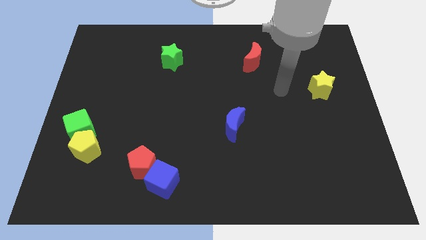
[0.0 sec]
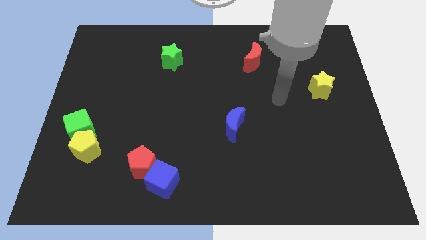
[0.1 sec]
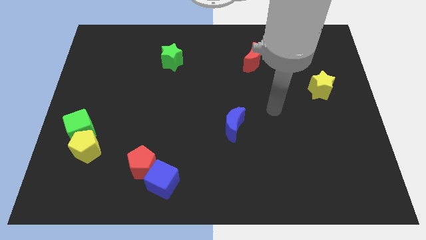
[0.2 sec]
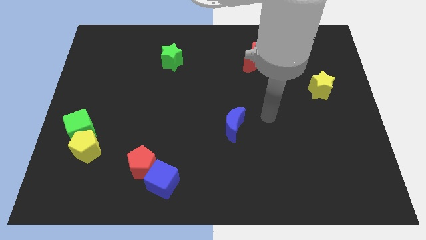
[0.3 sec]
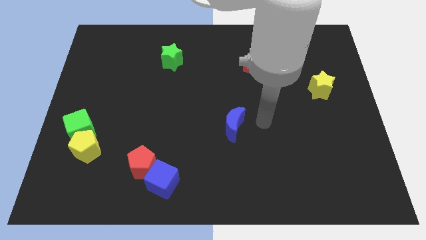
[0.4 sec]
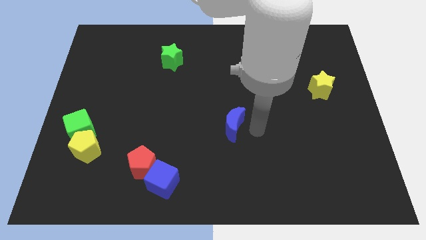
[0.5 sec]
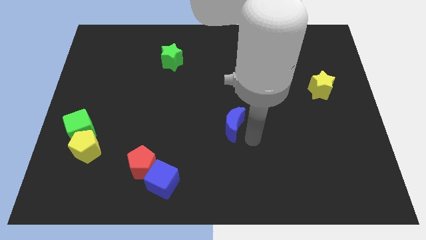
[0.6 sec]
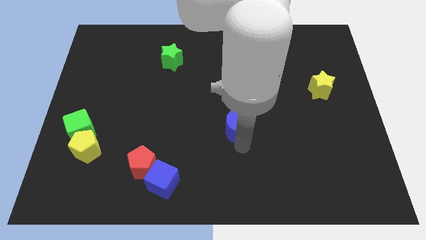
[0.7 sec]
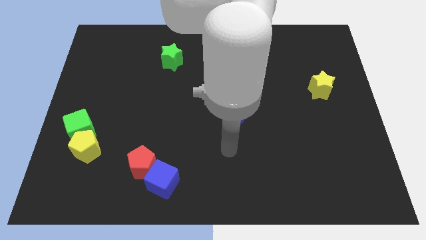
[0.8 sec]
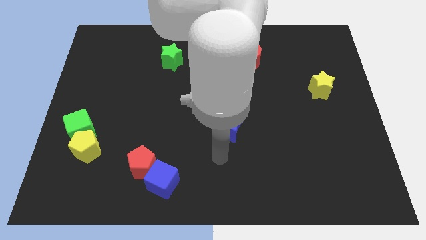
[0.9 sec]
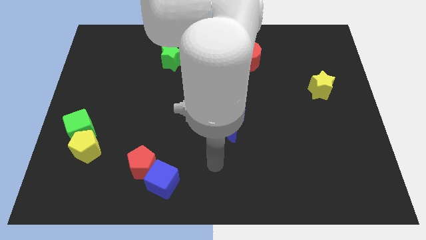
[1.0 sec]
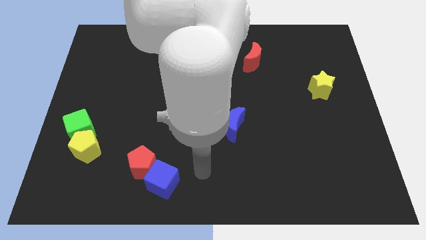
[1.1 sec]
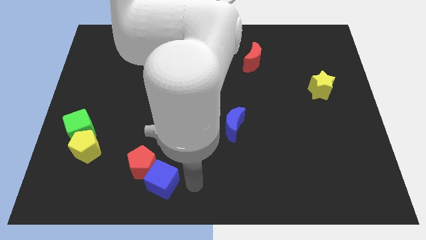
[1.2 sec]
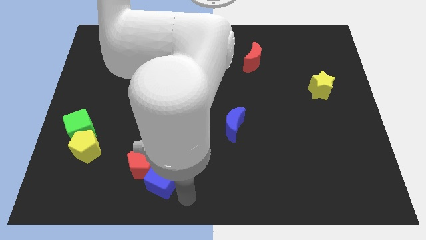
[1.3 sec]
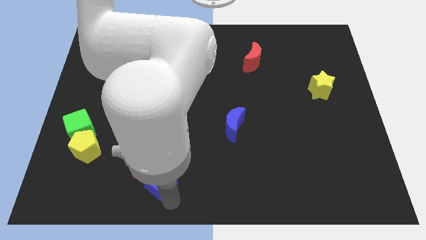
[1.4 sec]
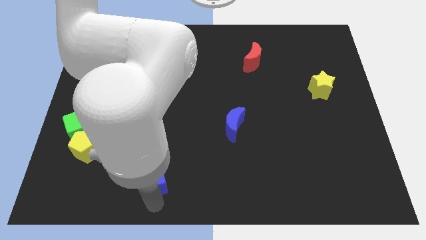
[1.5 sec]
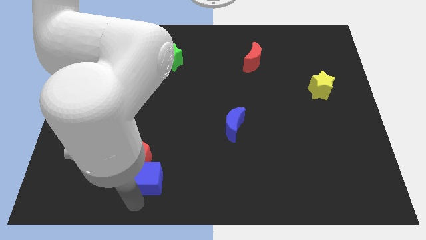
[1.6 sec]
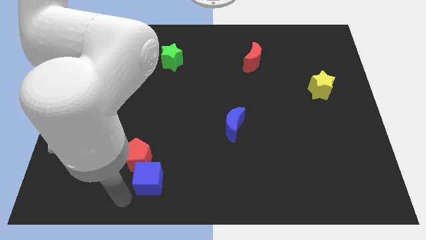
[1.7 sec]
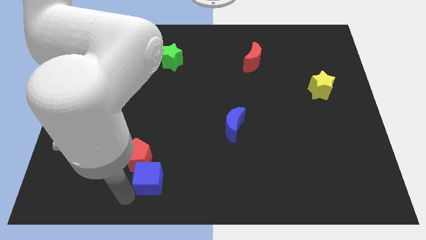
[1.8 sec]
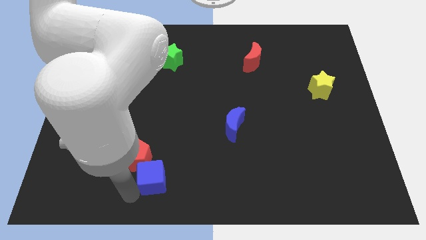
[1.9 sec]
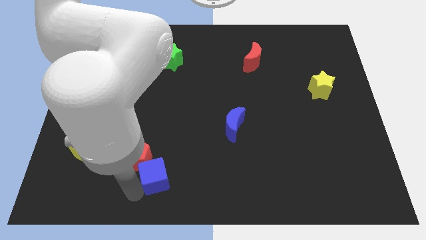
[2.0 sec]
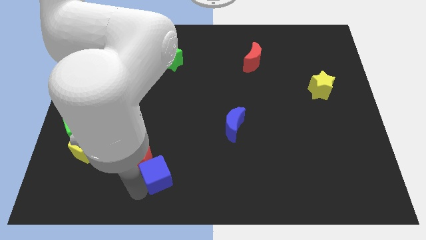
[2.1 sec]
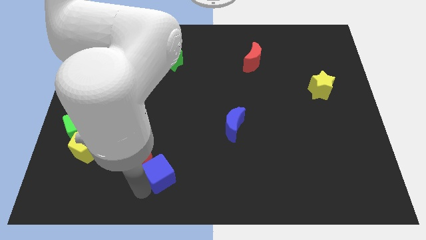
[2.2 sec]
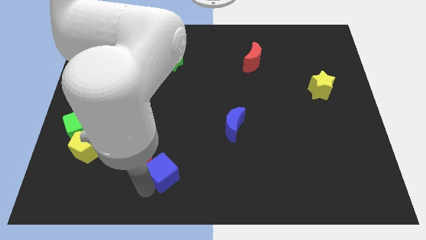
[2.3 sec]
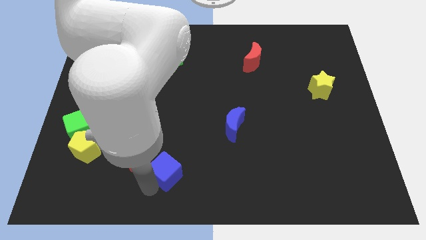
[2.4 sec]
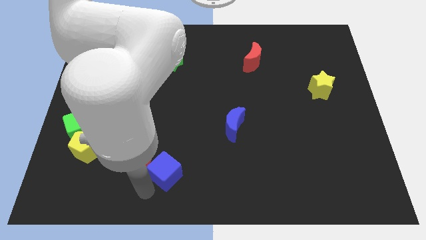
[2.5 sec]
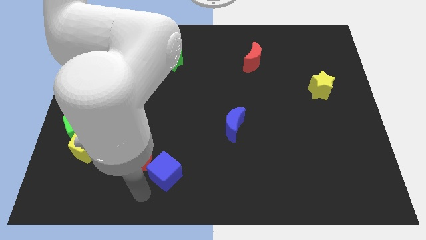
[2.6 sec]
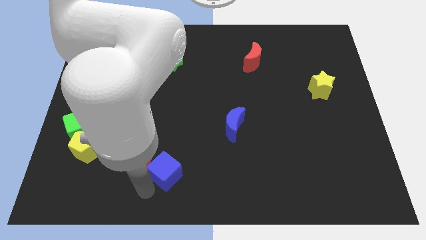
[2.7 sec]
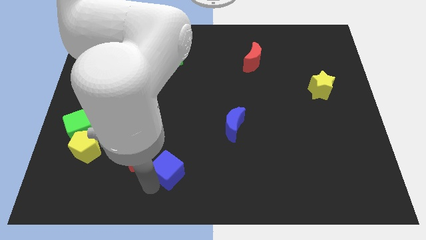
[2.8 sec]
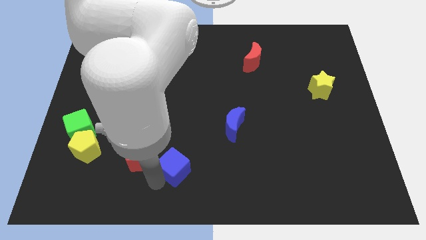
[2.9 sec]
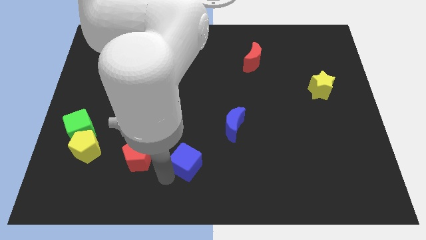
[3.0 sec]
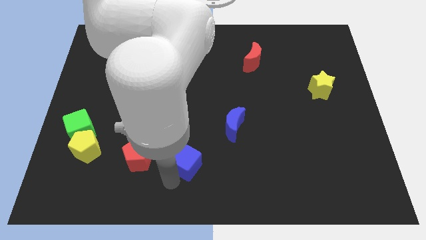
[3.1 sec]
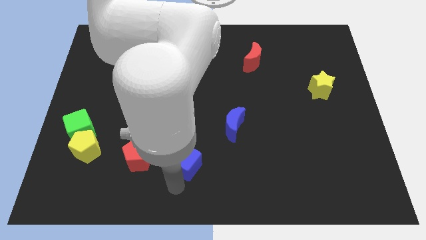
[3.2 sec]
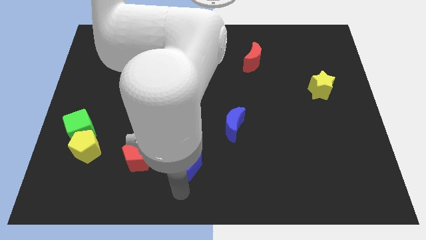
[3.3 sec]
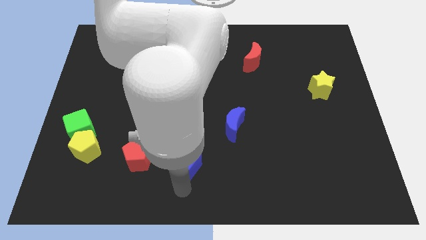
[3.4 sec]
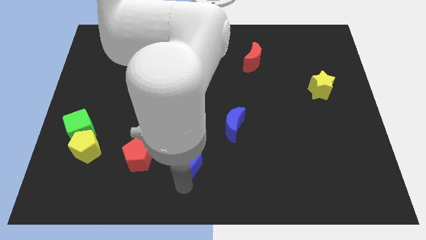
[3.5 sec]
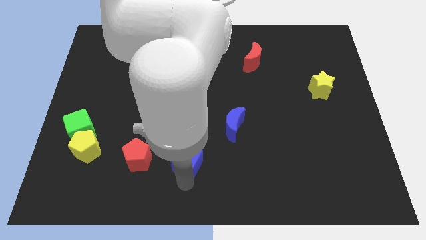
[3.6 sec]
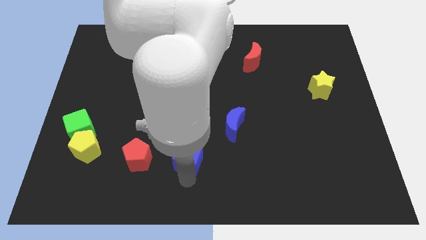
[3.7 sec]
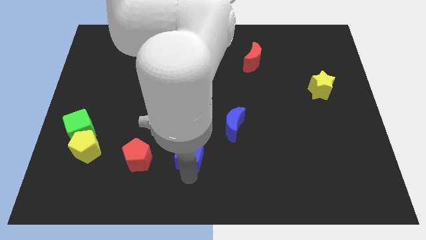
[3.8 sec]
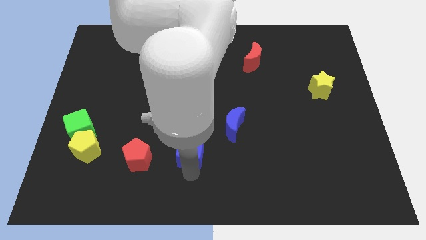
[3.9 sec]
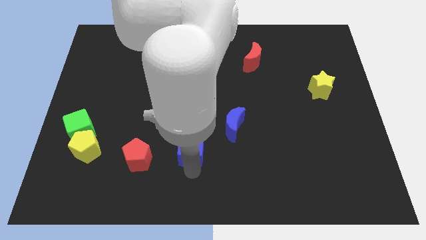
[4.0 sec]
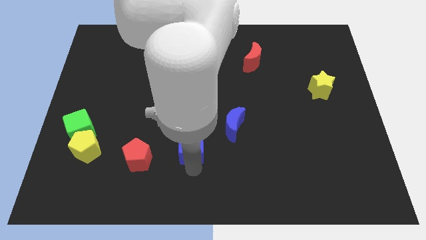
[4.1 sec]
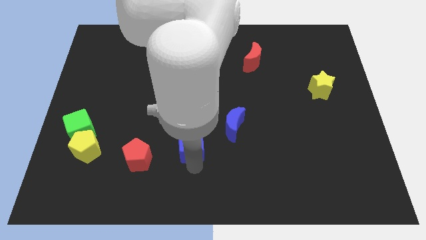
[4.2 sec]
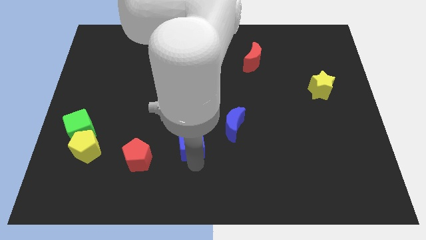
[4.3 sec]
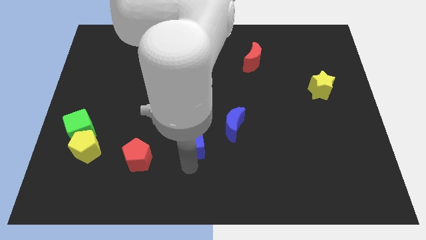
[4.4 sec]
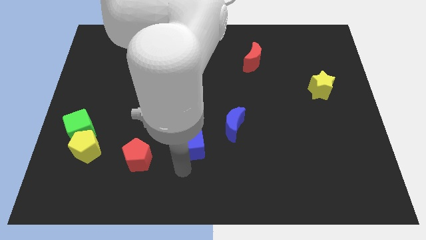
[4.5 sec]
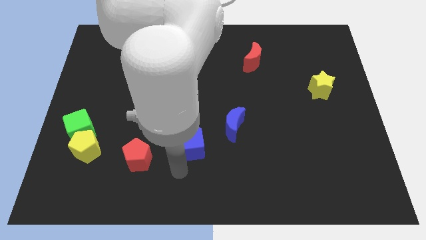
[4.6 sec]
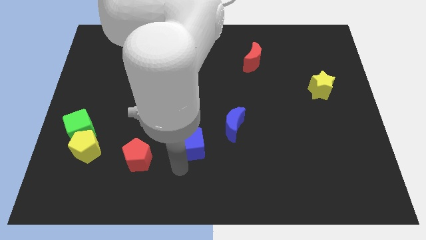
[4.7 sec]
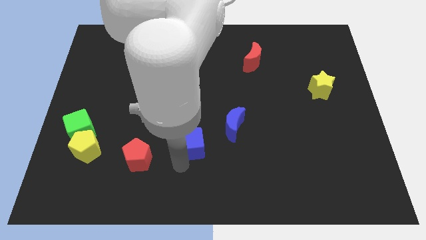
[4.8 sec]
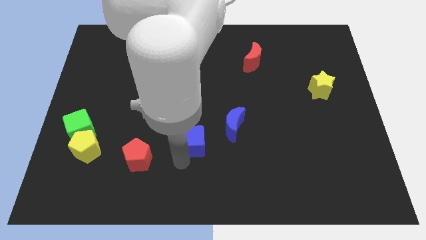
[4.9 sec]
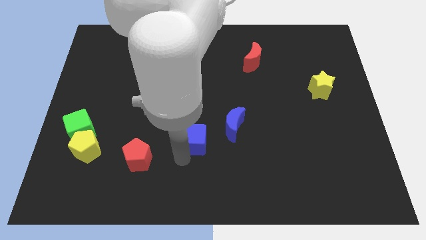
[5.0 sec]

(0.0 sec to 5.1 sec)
move the blue cube to the center of the board

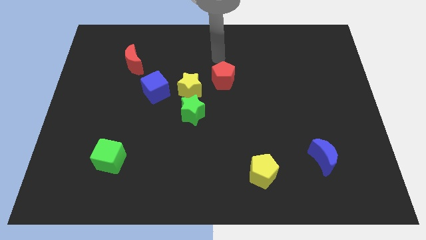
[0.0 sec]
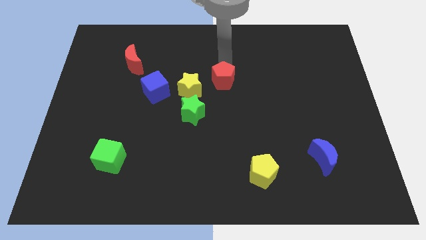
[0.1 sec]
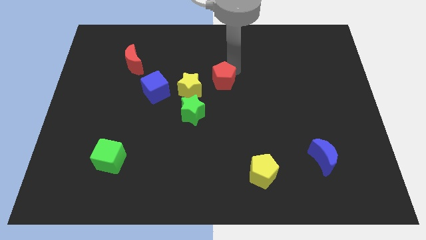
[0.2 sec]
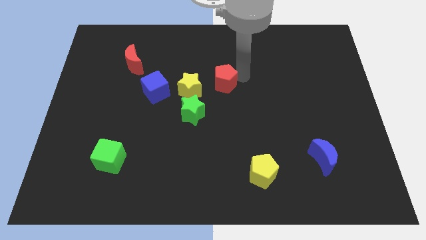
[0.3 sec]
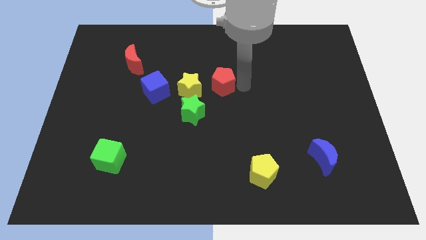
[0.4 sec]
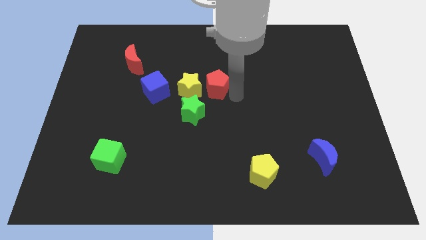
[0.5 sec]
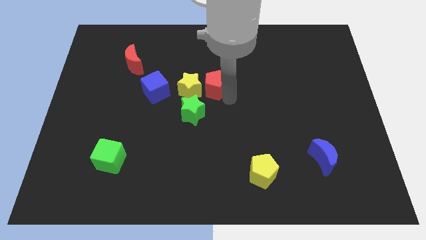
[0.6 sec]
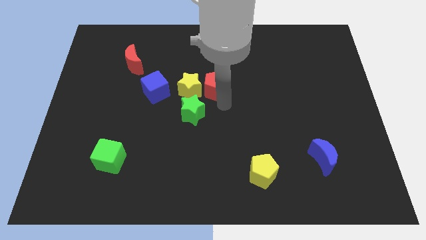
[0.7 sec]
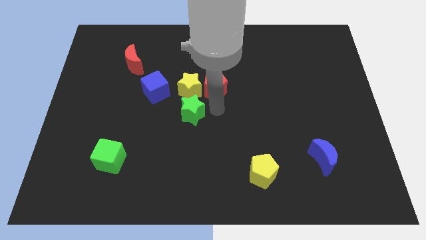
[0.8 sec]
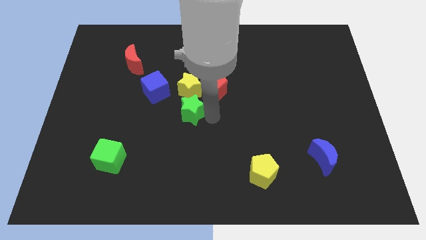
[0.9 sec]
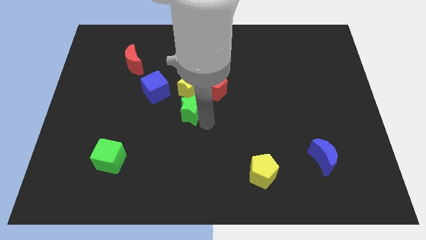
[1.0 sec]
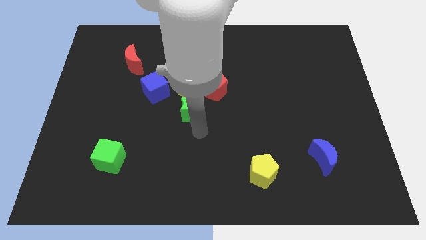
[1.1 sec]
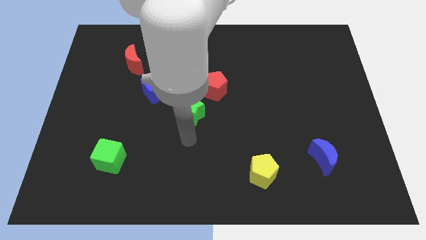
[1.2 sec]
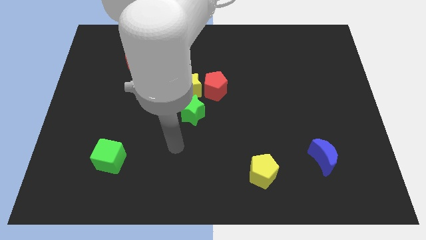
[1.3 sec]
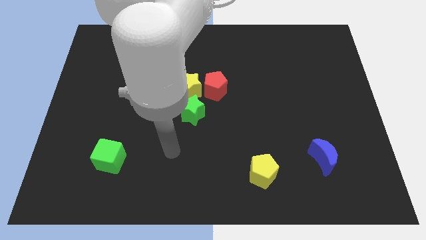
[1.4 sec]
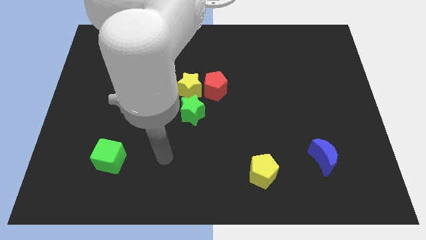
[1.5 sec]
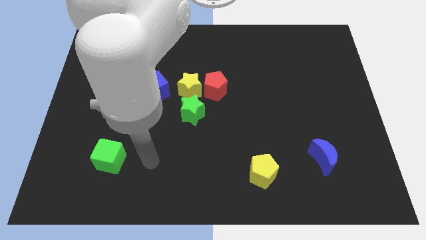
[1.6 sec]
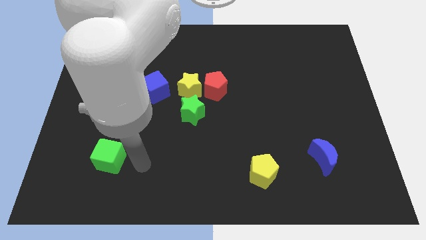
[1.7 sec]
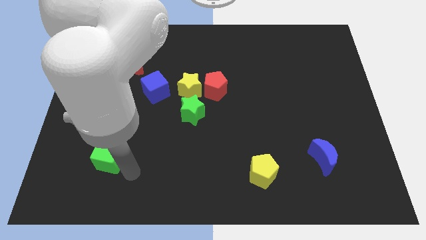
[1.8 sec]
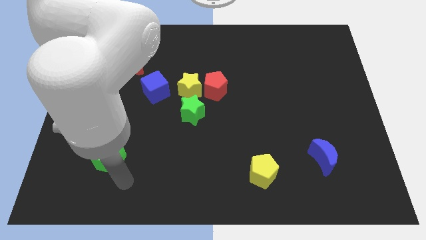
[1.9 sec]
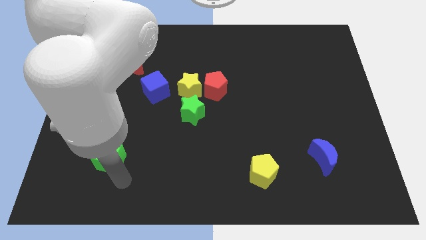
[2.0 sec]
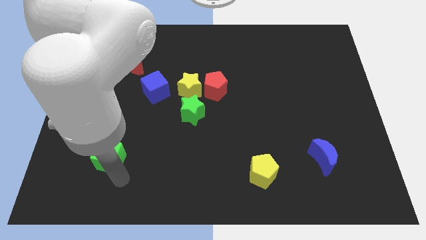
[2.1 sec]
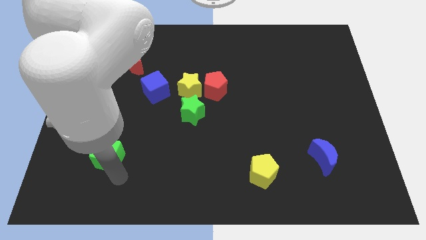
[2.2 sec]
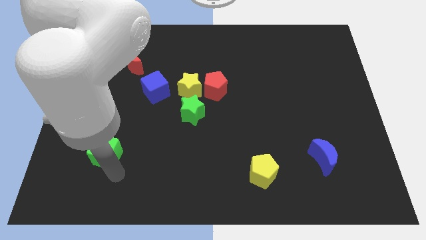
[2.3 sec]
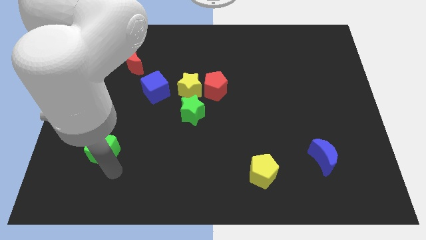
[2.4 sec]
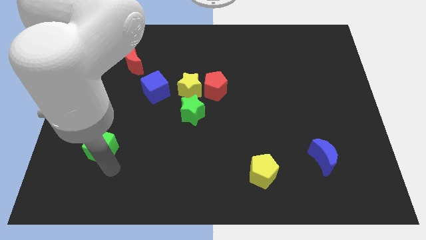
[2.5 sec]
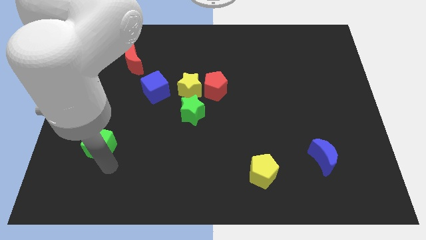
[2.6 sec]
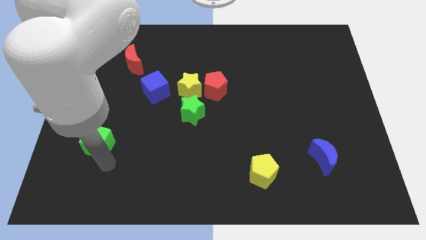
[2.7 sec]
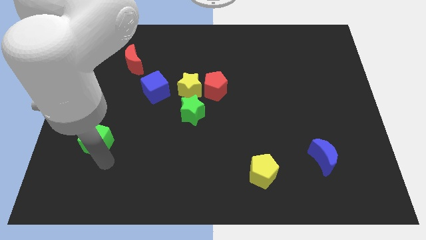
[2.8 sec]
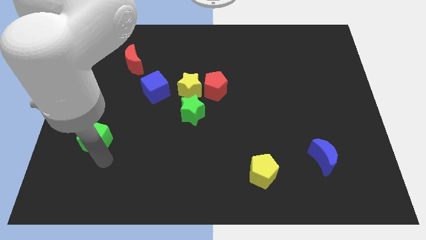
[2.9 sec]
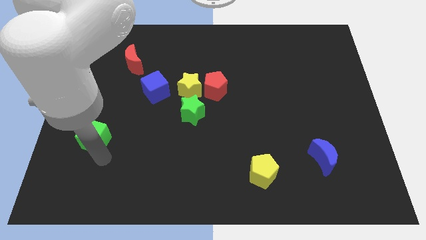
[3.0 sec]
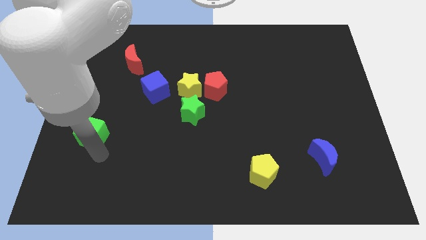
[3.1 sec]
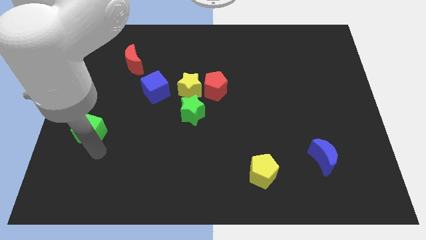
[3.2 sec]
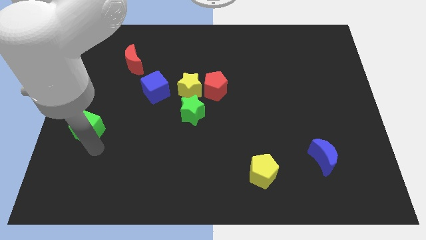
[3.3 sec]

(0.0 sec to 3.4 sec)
move the green cube to the left side of the board
